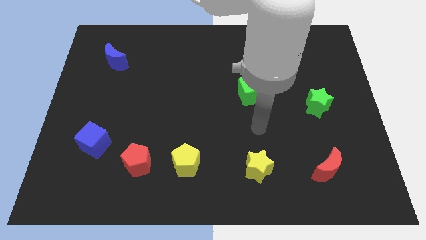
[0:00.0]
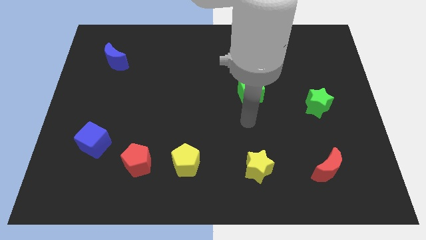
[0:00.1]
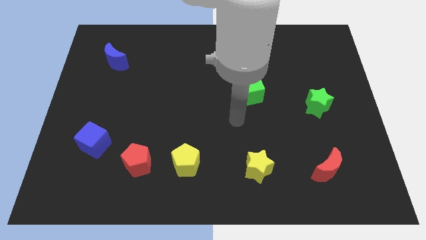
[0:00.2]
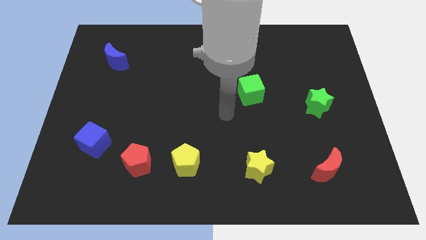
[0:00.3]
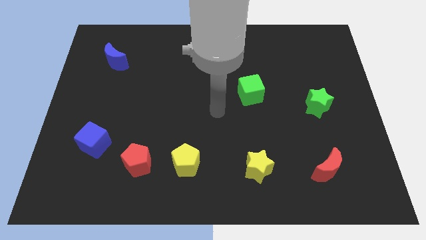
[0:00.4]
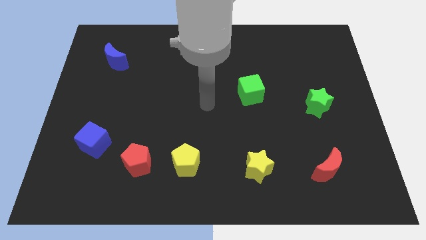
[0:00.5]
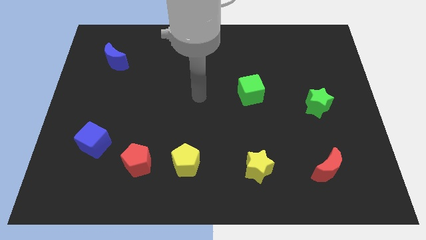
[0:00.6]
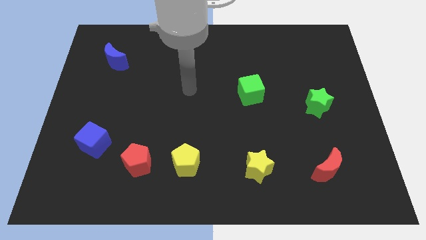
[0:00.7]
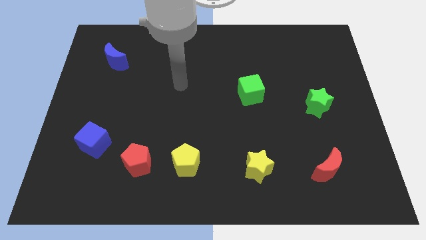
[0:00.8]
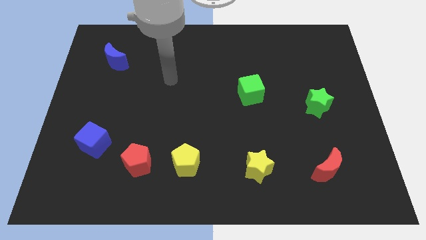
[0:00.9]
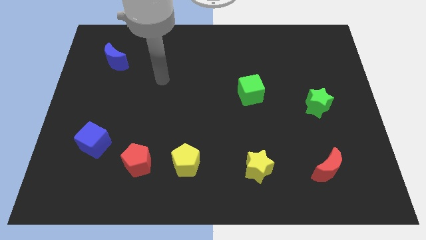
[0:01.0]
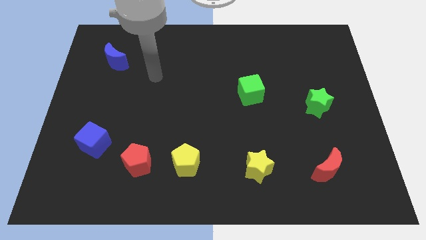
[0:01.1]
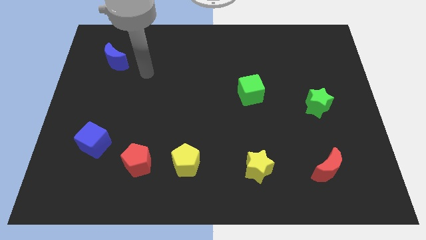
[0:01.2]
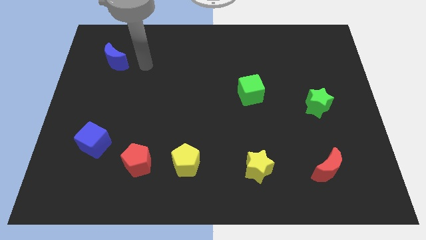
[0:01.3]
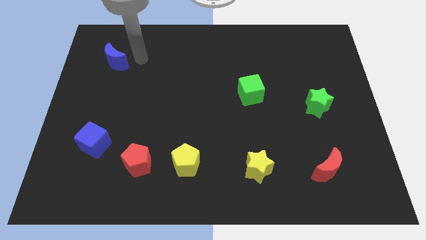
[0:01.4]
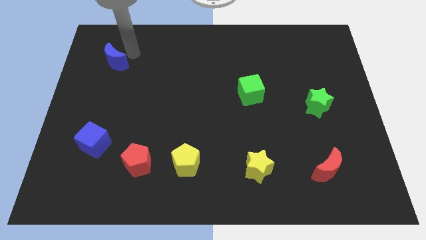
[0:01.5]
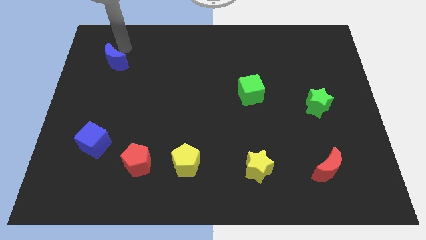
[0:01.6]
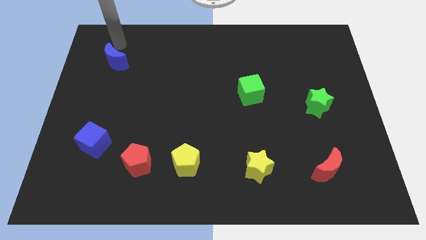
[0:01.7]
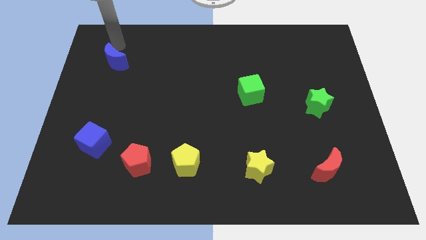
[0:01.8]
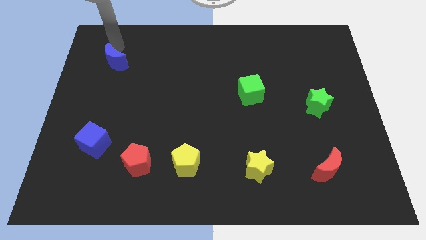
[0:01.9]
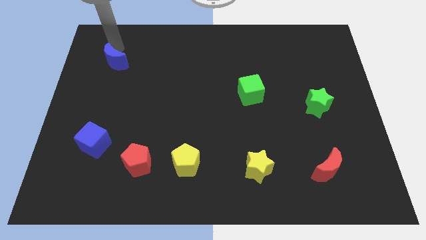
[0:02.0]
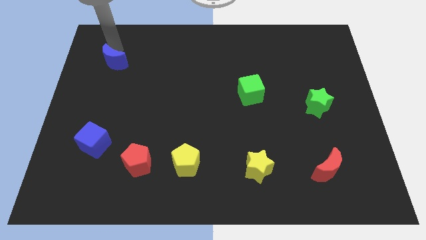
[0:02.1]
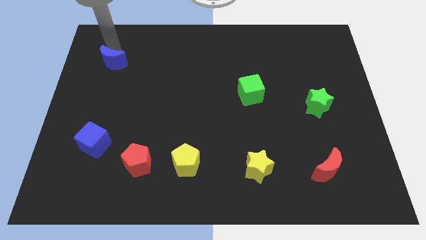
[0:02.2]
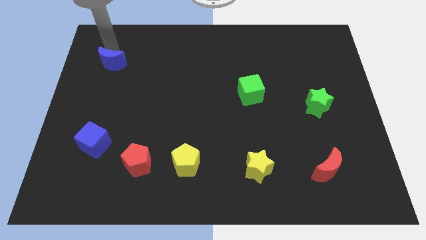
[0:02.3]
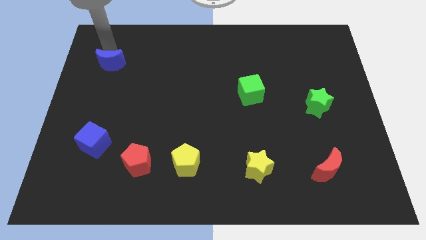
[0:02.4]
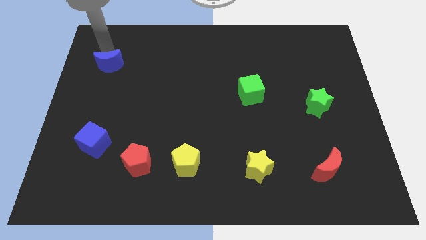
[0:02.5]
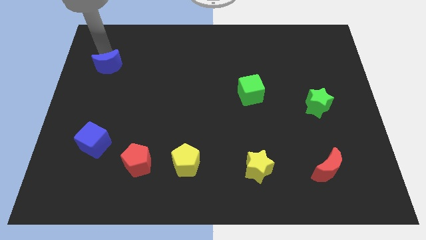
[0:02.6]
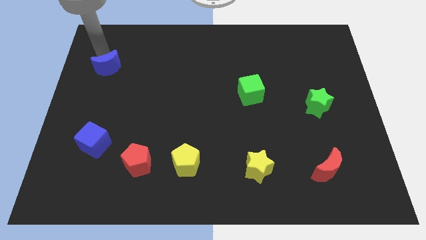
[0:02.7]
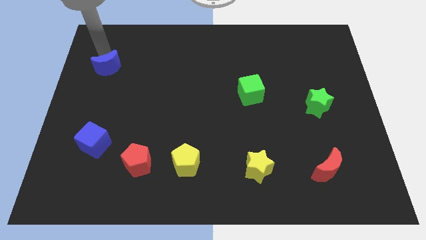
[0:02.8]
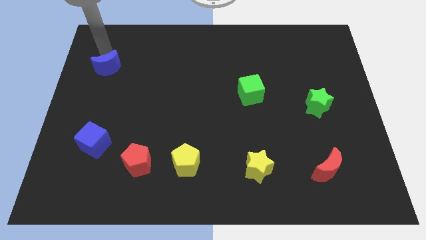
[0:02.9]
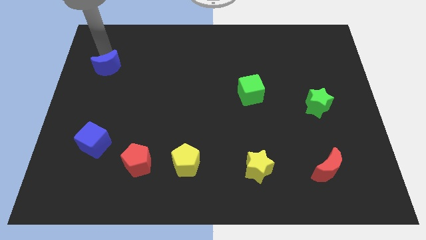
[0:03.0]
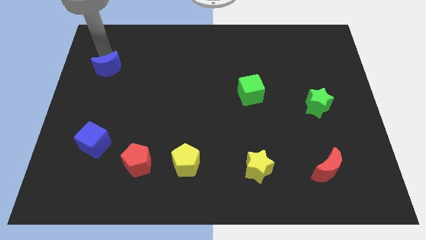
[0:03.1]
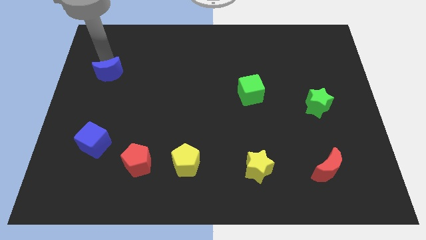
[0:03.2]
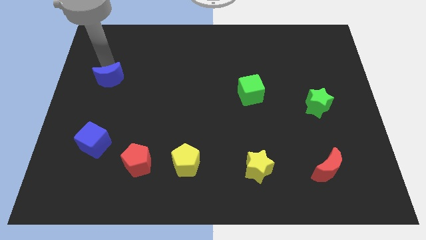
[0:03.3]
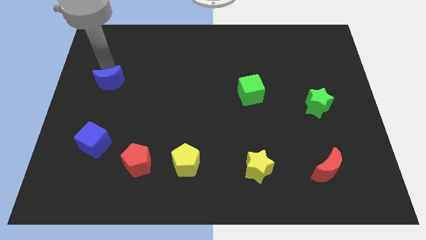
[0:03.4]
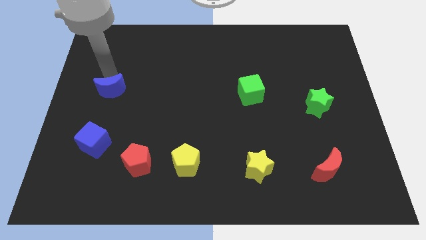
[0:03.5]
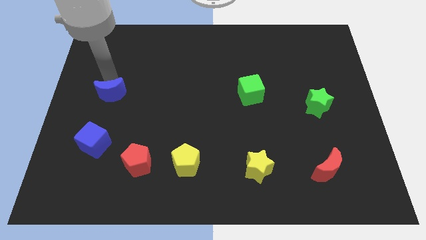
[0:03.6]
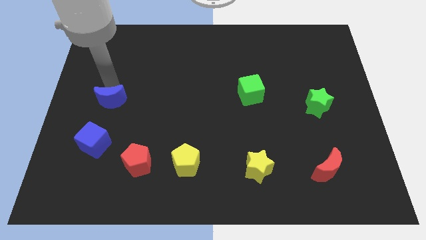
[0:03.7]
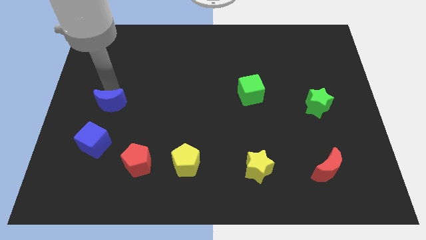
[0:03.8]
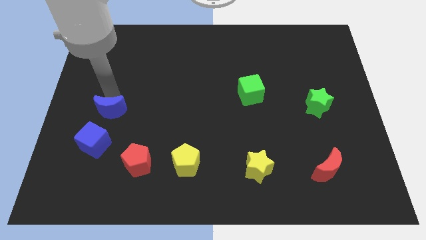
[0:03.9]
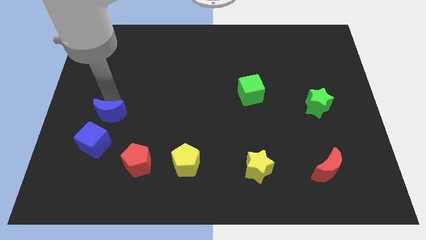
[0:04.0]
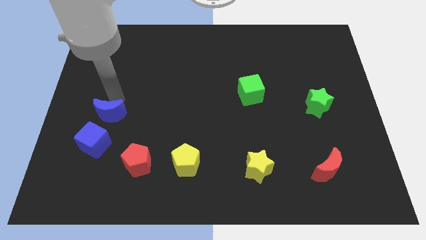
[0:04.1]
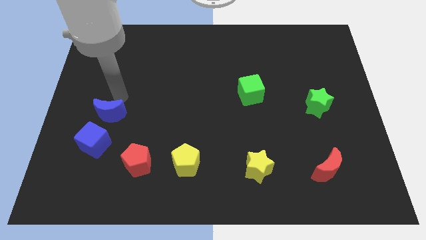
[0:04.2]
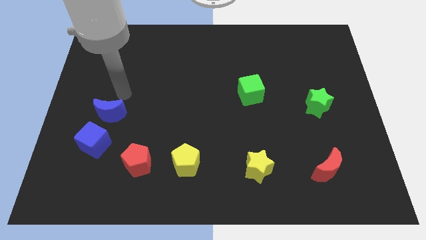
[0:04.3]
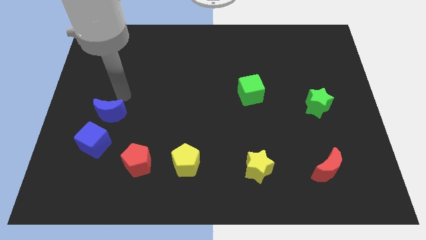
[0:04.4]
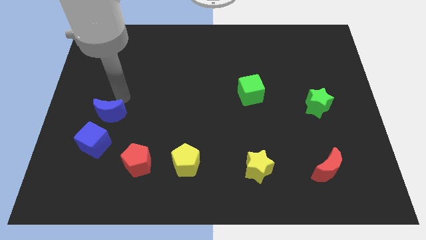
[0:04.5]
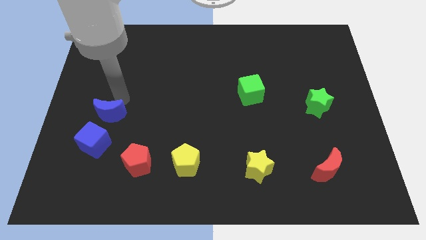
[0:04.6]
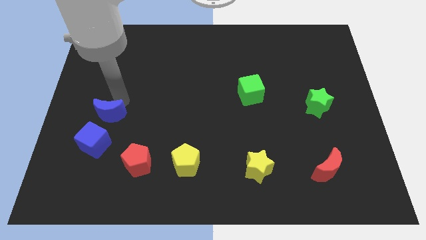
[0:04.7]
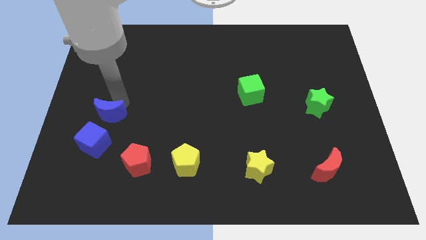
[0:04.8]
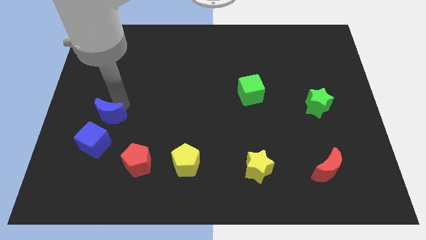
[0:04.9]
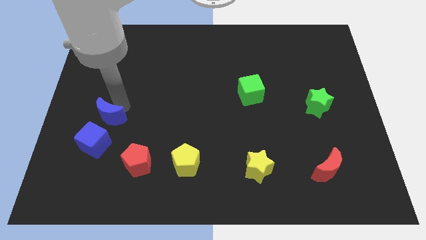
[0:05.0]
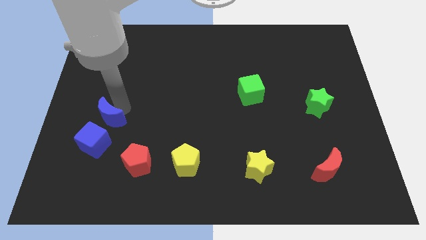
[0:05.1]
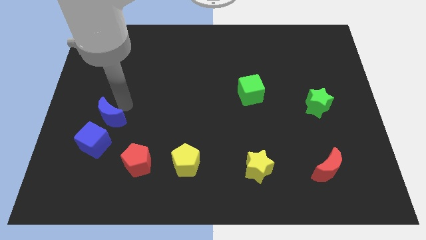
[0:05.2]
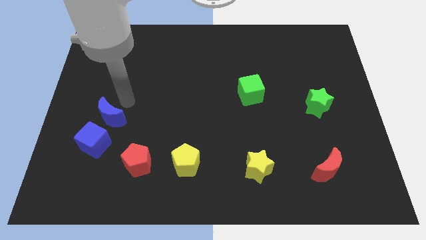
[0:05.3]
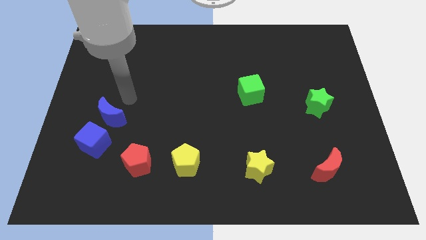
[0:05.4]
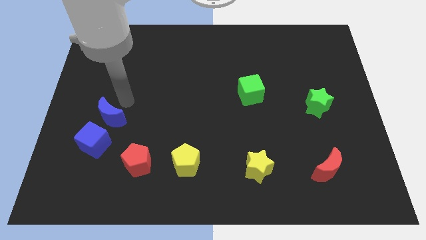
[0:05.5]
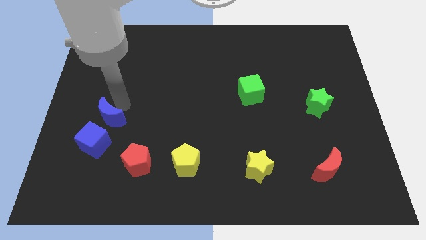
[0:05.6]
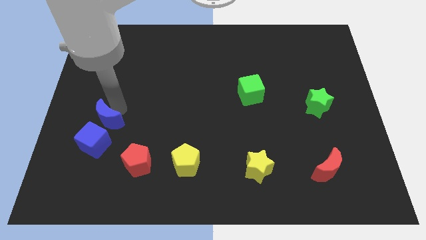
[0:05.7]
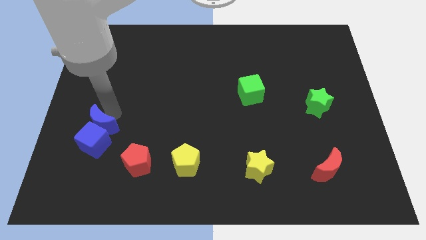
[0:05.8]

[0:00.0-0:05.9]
move the blue moon next to the blue cube
